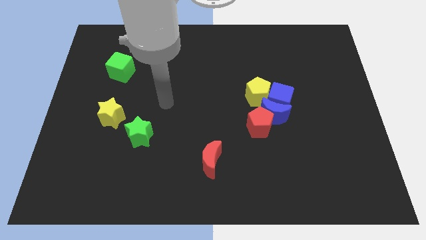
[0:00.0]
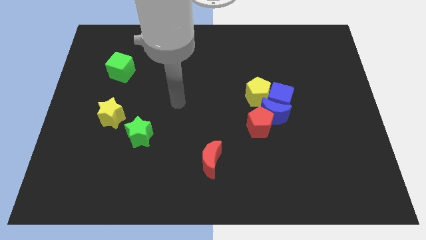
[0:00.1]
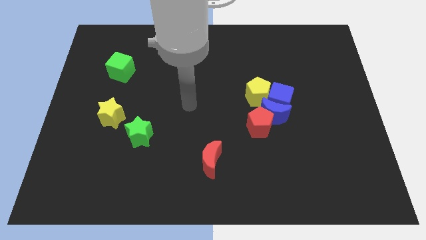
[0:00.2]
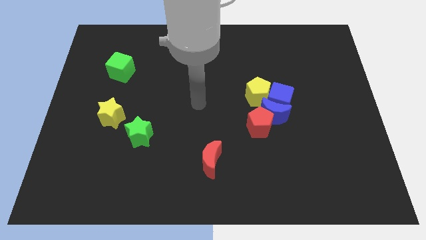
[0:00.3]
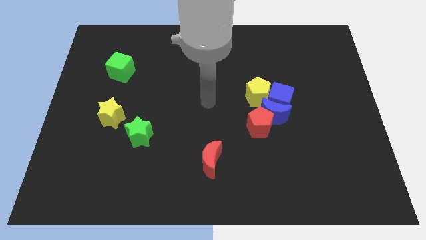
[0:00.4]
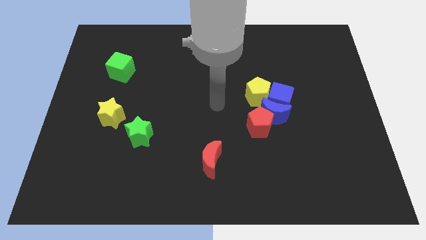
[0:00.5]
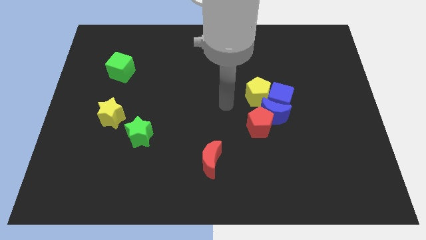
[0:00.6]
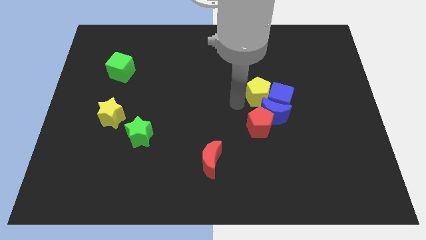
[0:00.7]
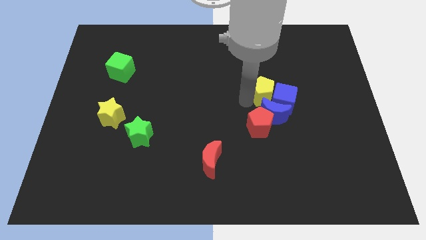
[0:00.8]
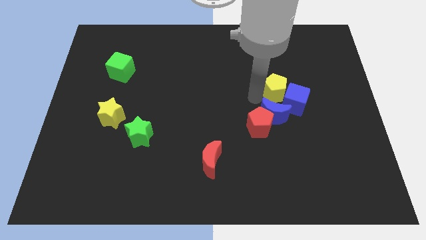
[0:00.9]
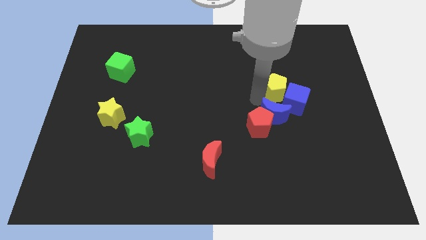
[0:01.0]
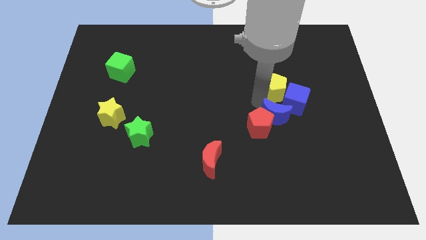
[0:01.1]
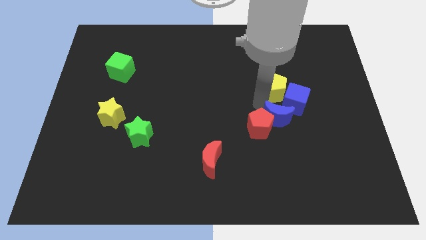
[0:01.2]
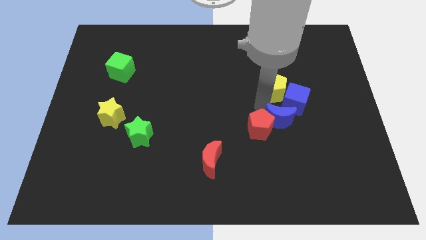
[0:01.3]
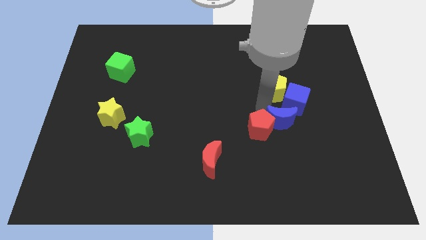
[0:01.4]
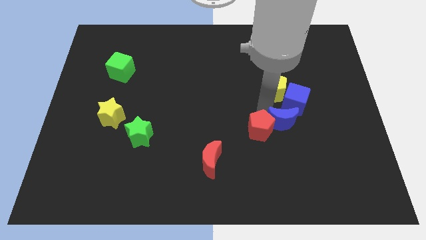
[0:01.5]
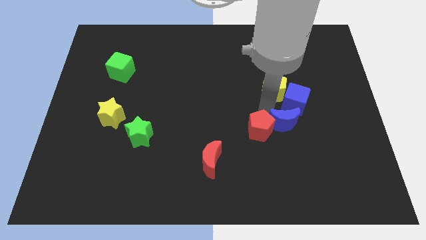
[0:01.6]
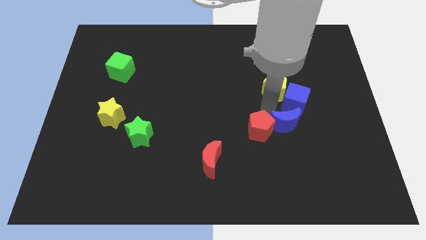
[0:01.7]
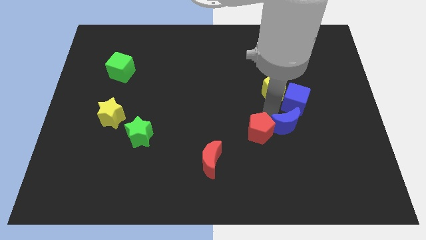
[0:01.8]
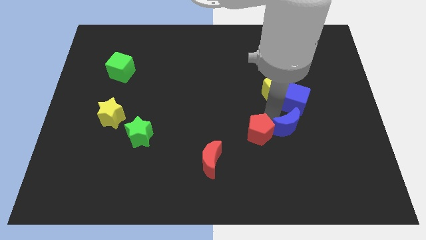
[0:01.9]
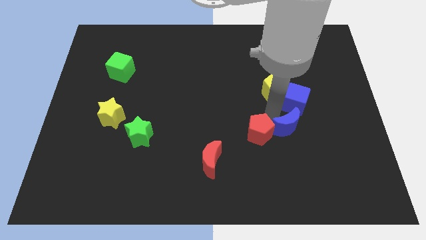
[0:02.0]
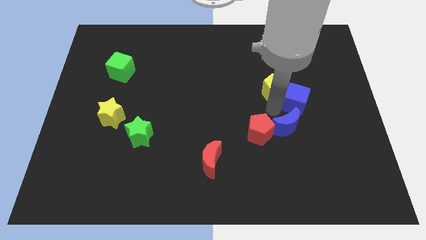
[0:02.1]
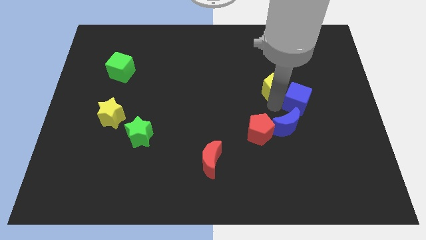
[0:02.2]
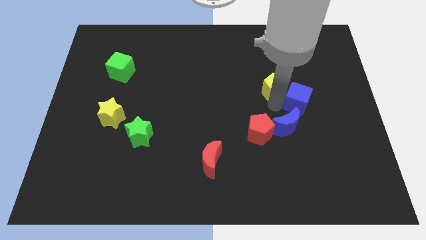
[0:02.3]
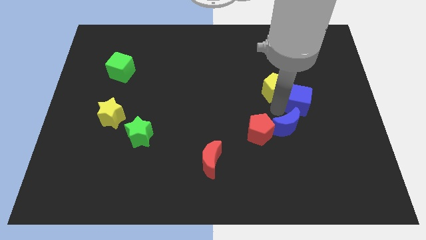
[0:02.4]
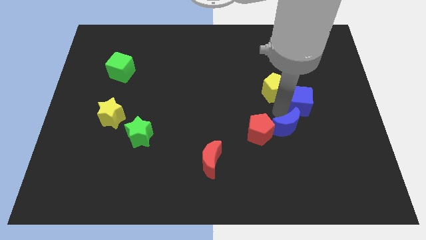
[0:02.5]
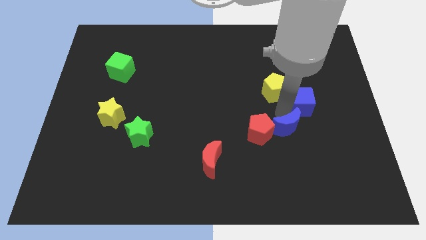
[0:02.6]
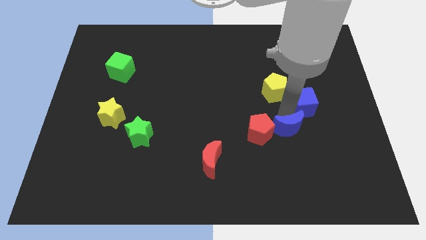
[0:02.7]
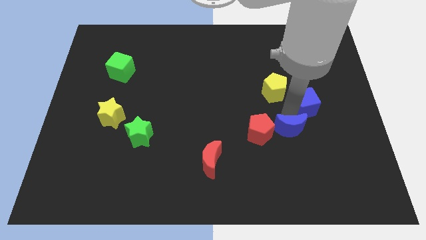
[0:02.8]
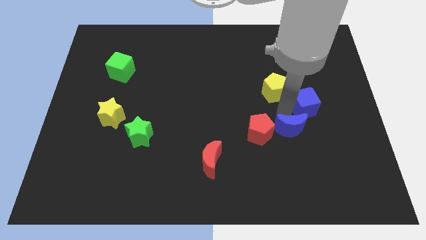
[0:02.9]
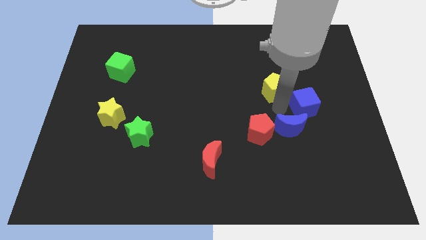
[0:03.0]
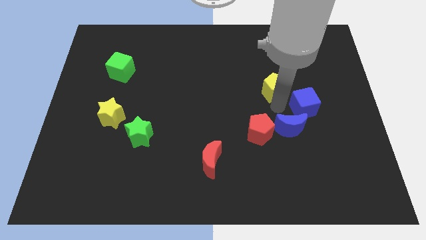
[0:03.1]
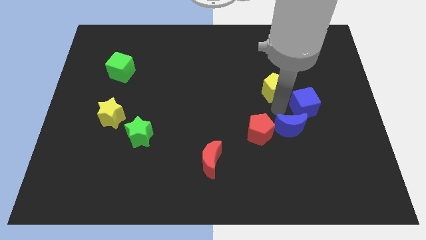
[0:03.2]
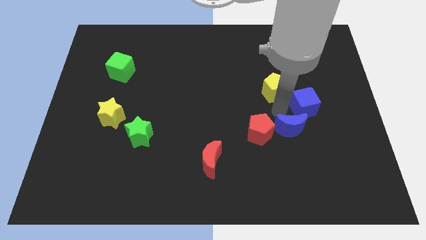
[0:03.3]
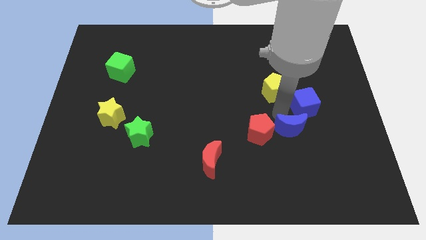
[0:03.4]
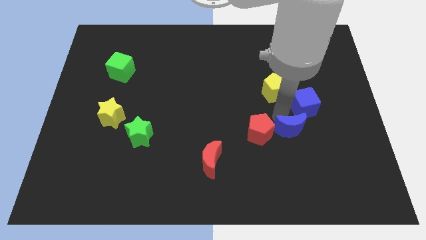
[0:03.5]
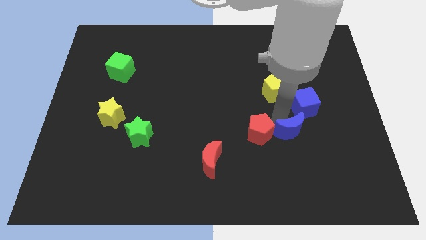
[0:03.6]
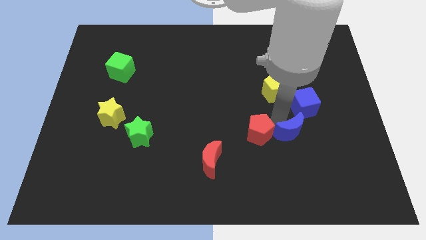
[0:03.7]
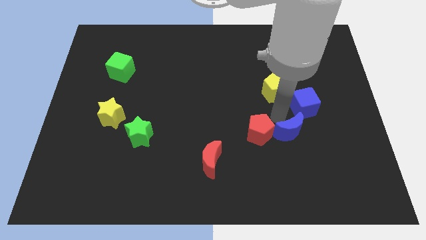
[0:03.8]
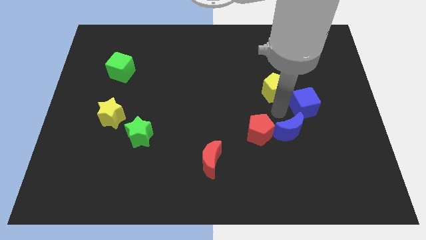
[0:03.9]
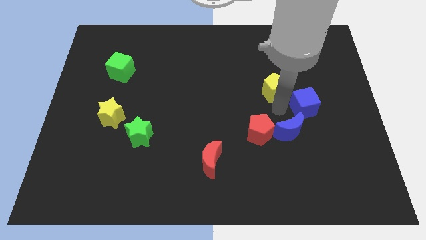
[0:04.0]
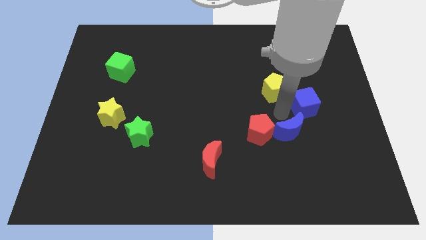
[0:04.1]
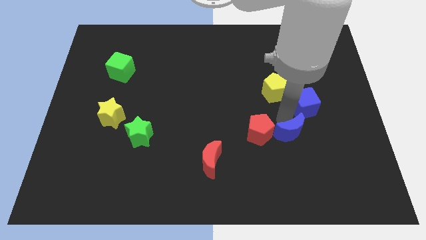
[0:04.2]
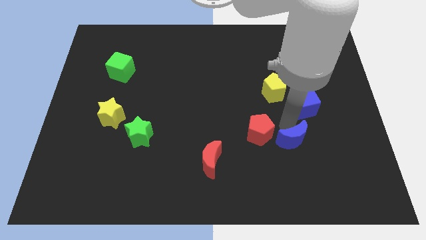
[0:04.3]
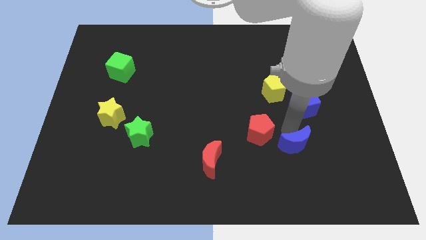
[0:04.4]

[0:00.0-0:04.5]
separate the blue moon from the red pentagon, blue cube, and yellow pentagon

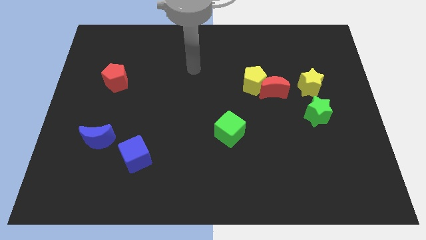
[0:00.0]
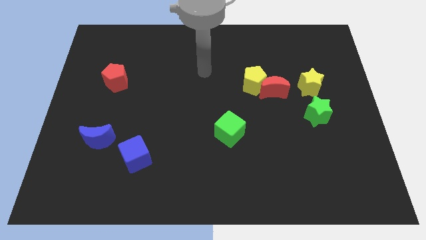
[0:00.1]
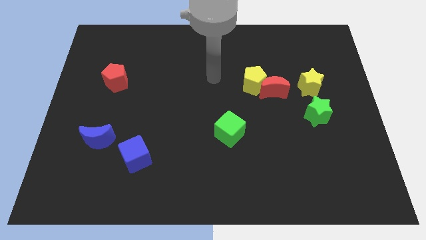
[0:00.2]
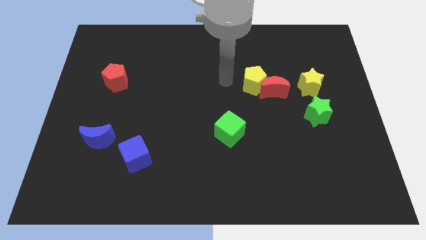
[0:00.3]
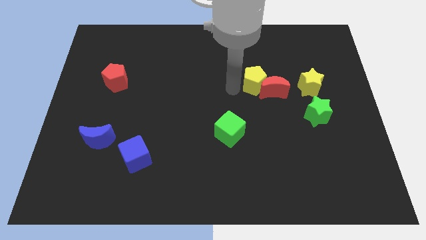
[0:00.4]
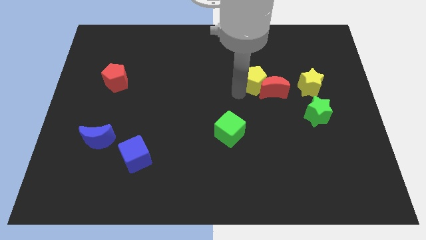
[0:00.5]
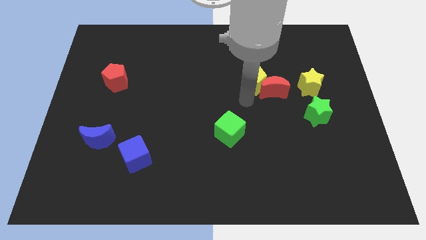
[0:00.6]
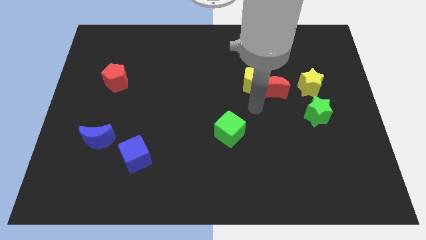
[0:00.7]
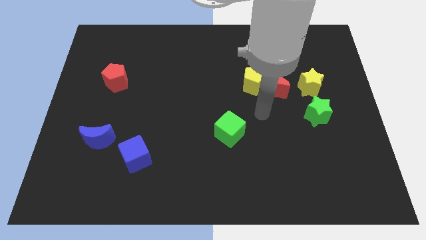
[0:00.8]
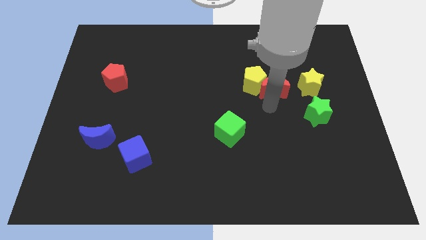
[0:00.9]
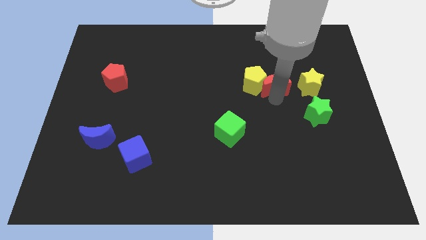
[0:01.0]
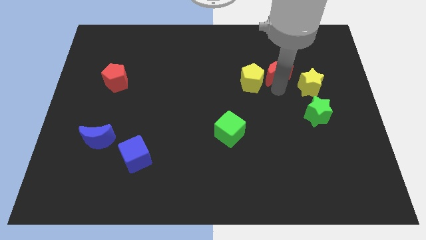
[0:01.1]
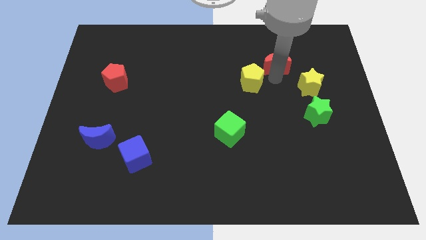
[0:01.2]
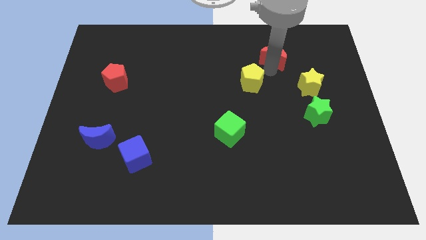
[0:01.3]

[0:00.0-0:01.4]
separate the yellow pentagon from the red moon

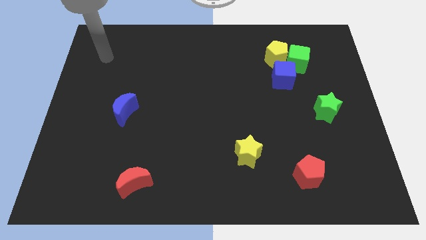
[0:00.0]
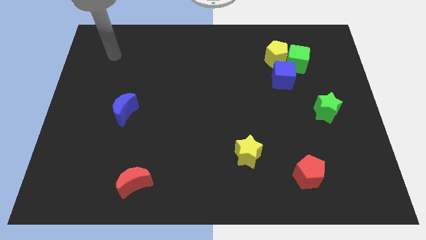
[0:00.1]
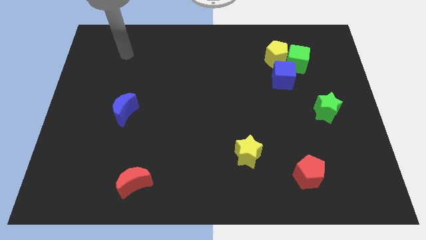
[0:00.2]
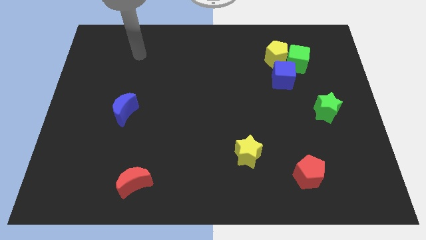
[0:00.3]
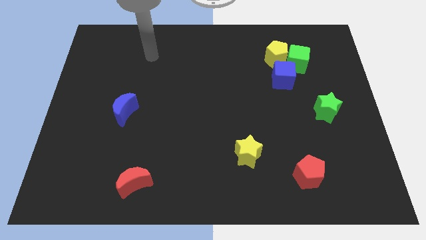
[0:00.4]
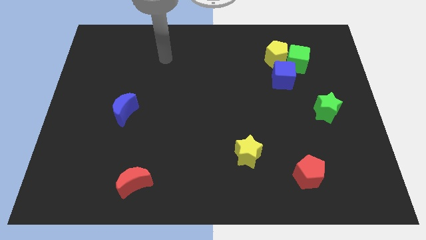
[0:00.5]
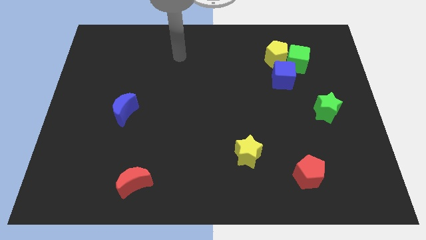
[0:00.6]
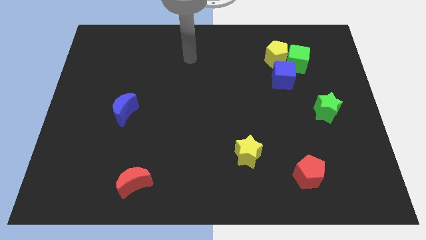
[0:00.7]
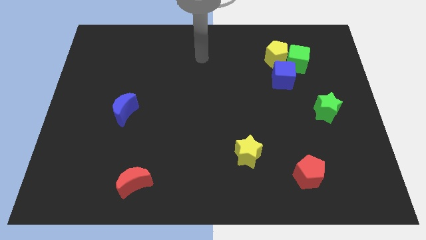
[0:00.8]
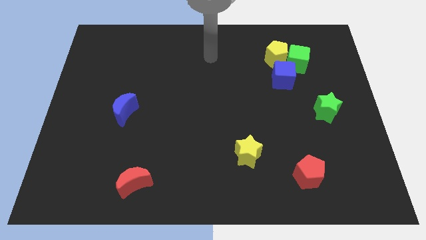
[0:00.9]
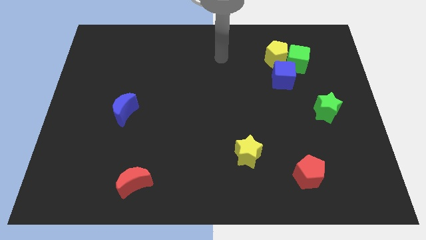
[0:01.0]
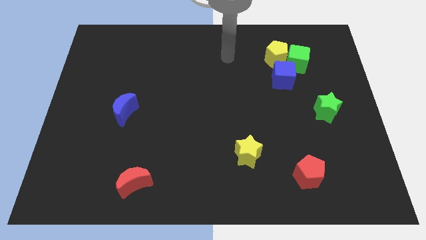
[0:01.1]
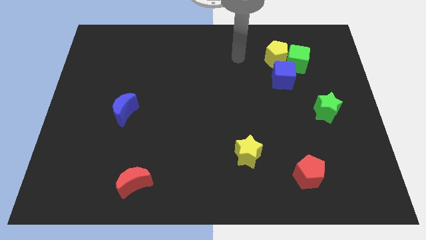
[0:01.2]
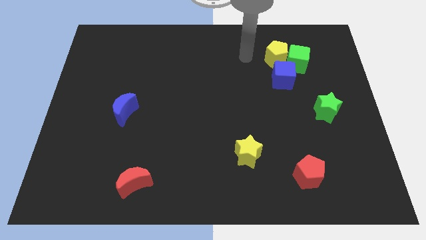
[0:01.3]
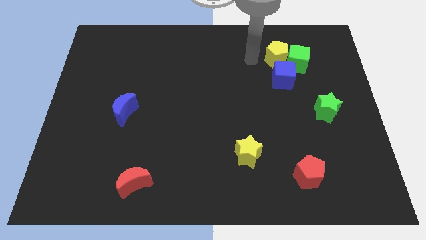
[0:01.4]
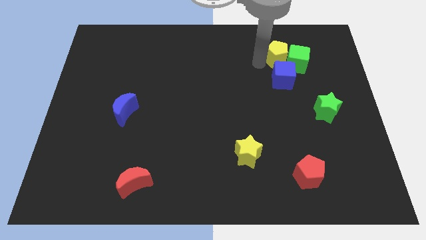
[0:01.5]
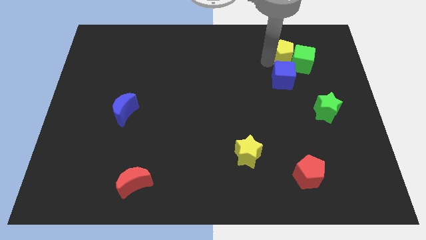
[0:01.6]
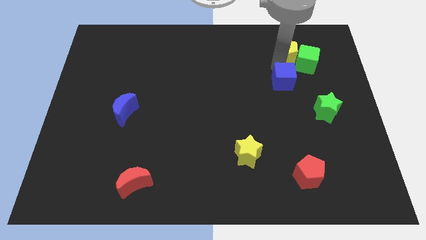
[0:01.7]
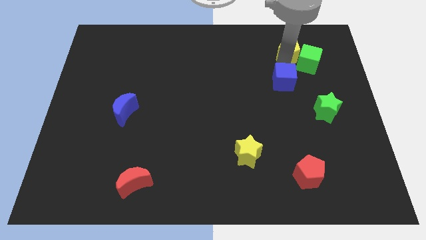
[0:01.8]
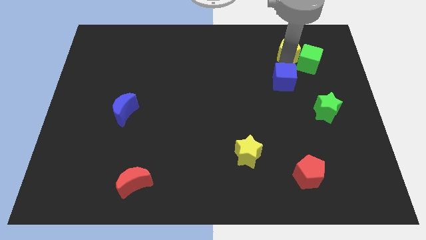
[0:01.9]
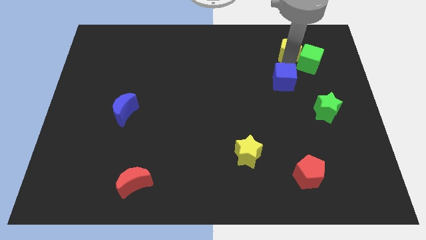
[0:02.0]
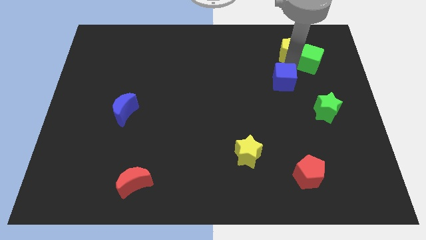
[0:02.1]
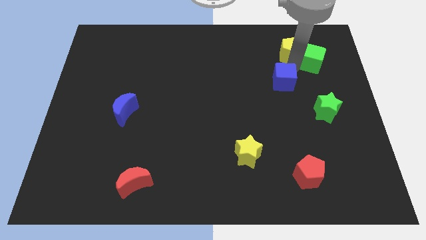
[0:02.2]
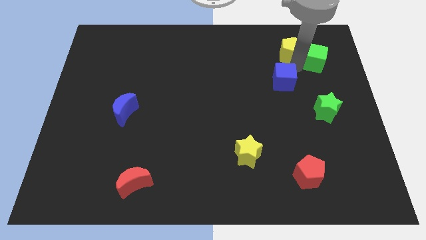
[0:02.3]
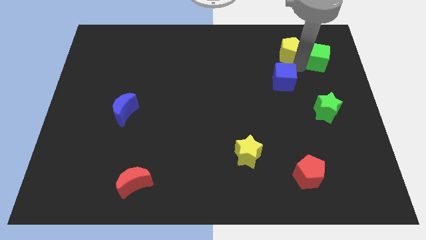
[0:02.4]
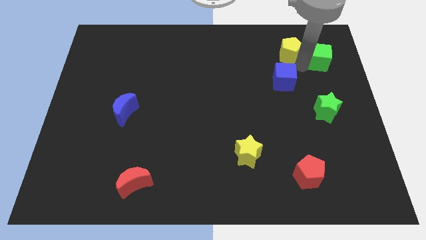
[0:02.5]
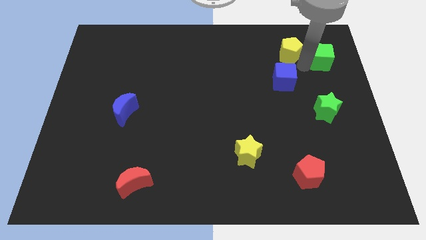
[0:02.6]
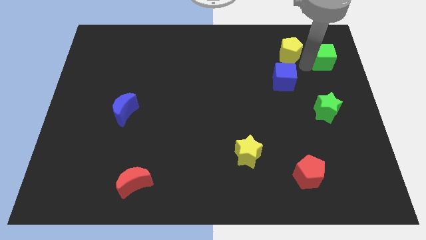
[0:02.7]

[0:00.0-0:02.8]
move the green cube away from the yellow pentagon and blue cube

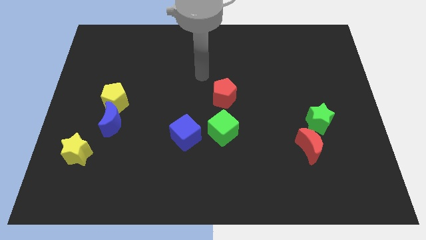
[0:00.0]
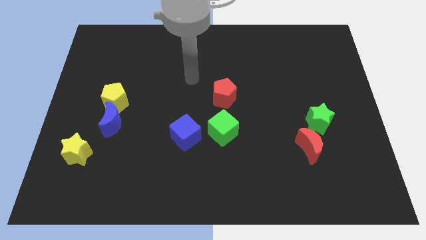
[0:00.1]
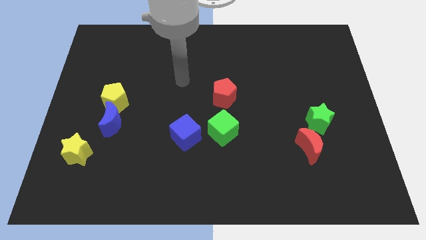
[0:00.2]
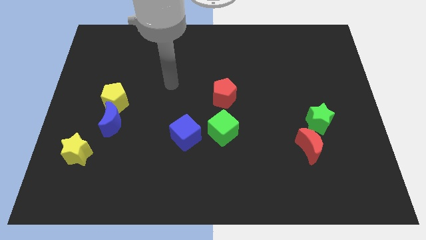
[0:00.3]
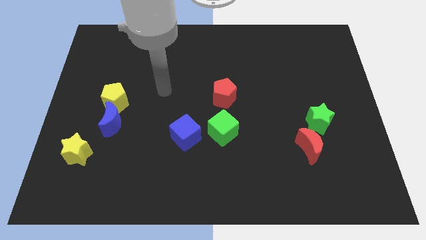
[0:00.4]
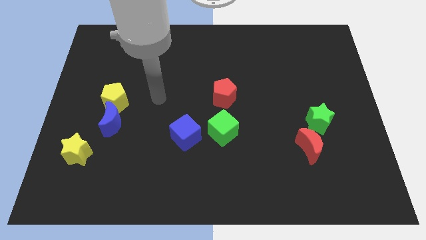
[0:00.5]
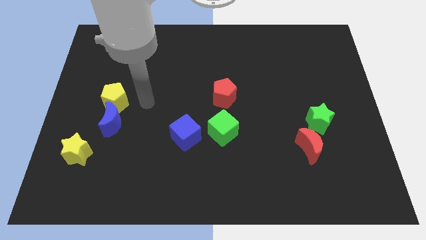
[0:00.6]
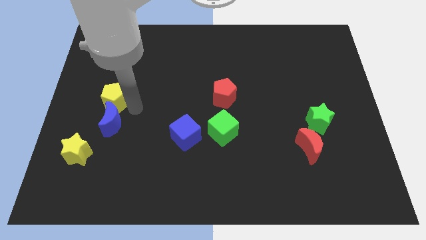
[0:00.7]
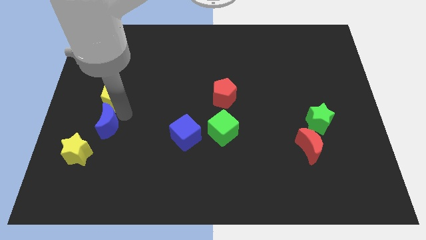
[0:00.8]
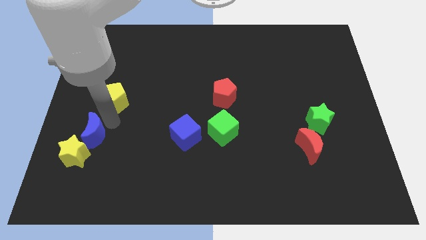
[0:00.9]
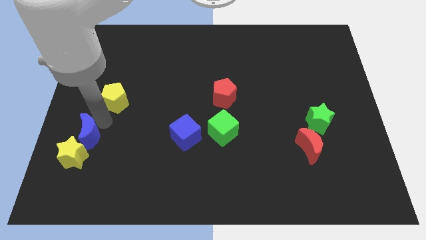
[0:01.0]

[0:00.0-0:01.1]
move the yellow pentagon away from the blue moon
